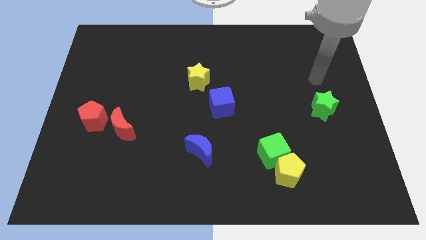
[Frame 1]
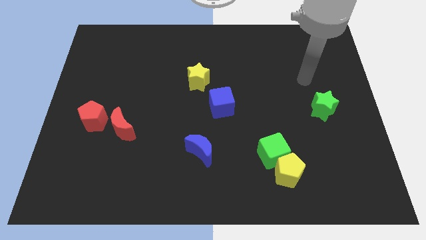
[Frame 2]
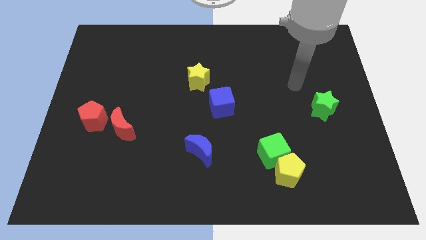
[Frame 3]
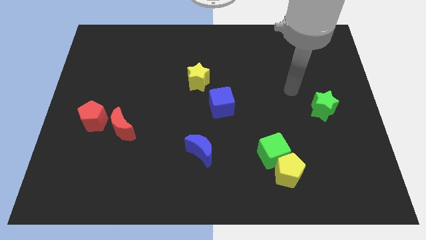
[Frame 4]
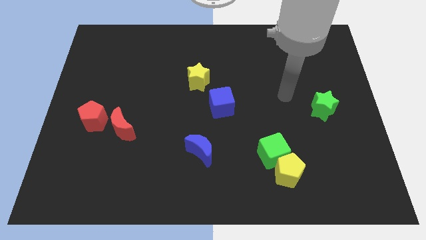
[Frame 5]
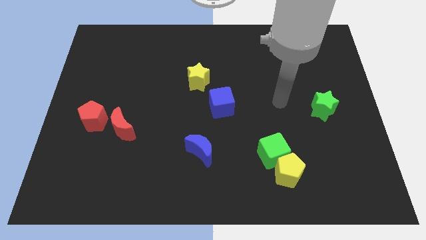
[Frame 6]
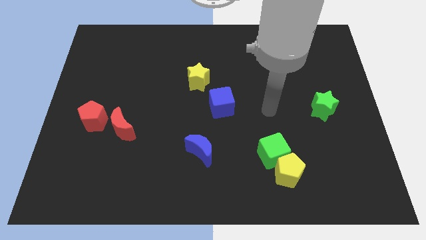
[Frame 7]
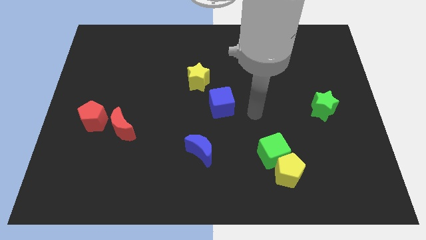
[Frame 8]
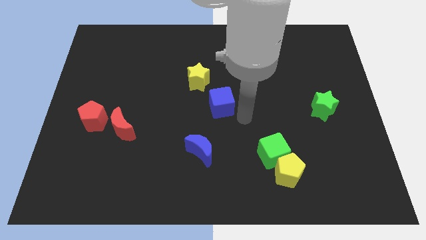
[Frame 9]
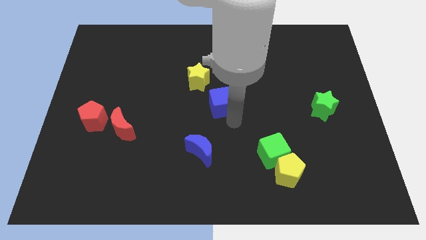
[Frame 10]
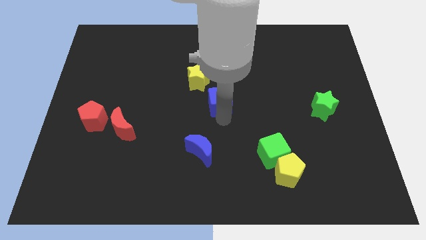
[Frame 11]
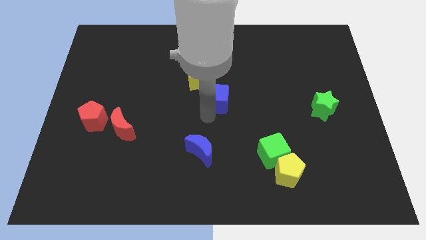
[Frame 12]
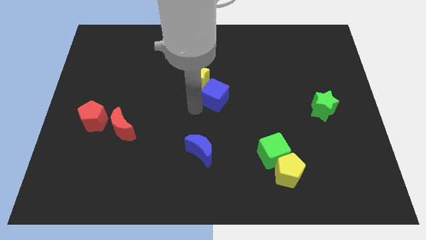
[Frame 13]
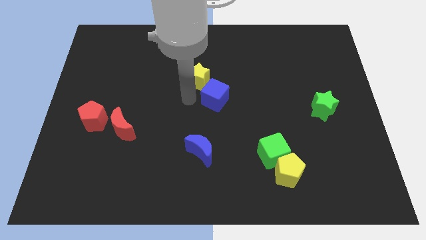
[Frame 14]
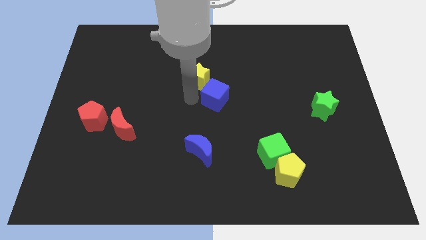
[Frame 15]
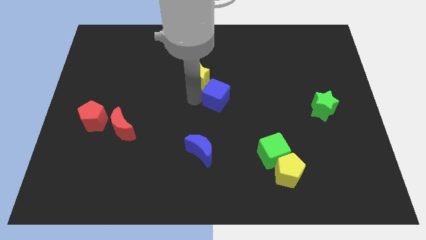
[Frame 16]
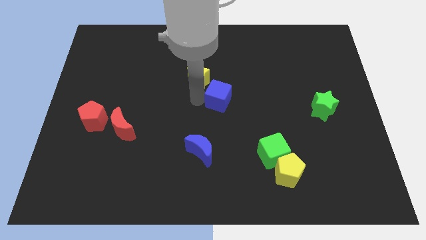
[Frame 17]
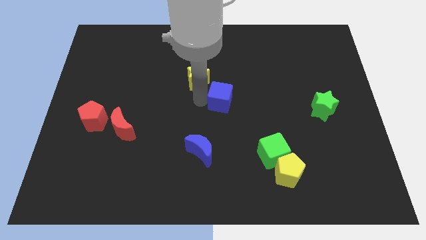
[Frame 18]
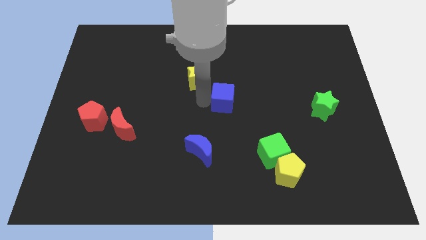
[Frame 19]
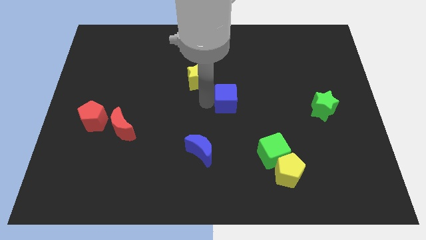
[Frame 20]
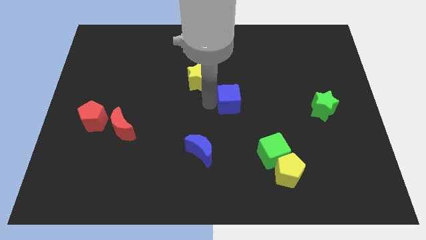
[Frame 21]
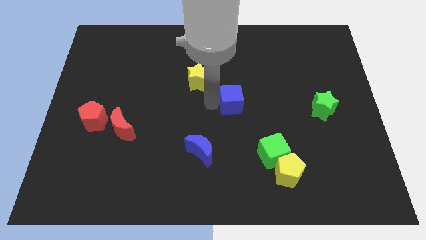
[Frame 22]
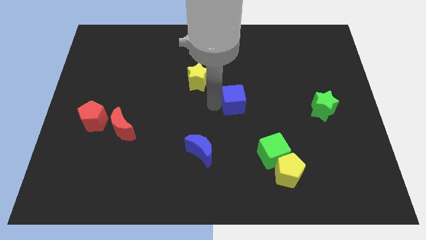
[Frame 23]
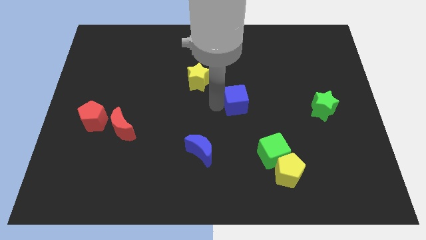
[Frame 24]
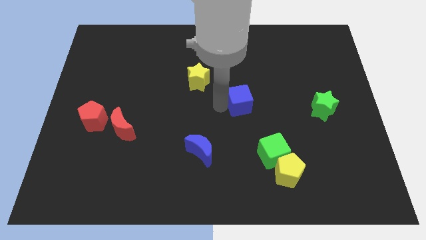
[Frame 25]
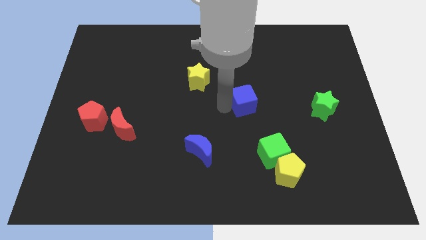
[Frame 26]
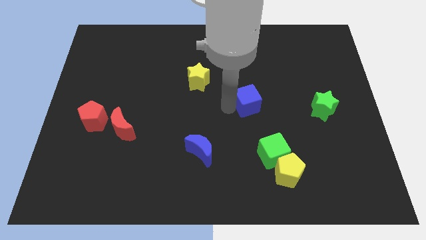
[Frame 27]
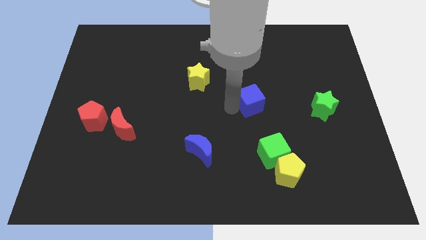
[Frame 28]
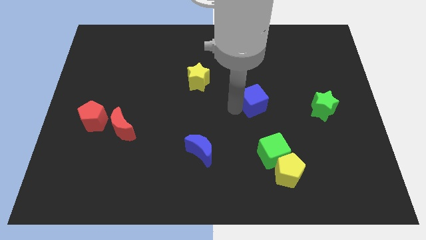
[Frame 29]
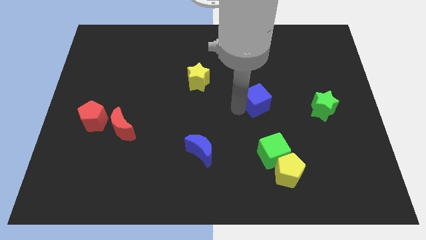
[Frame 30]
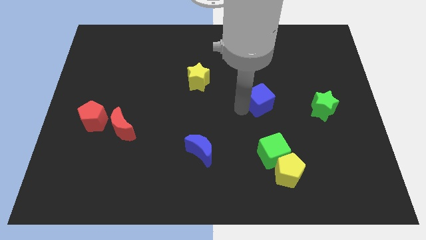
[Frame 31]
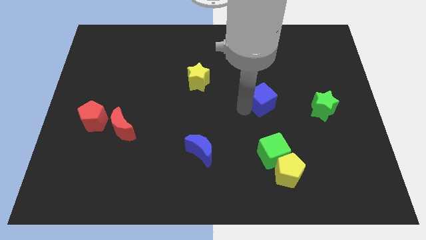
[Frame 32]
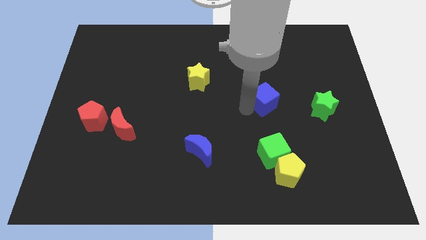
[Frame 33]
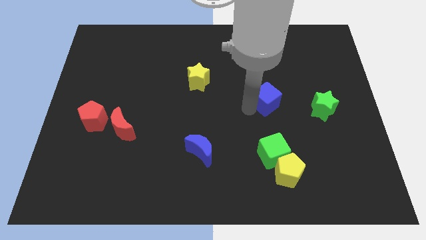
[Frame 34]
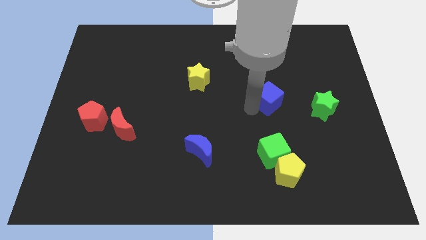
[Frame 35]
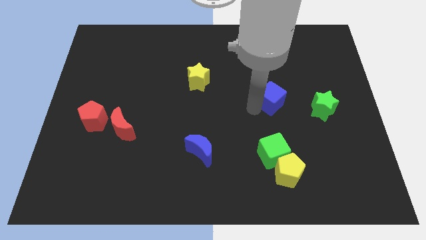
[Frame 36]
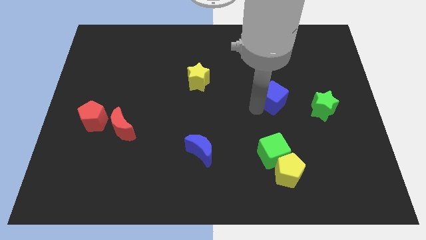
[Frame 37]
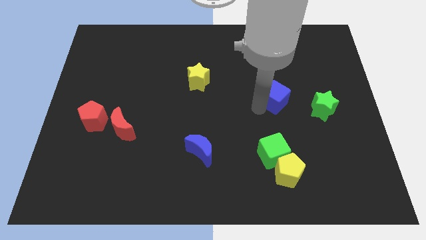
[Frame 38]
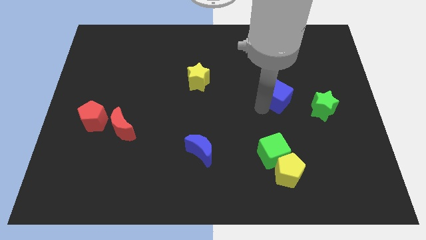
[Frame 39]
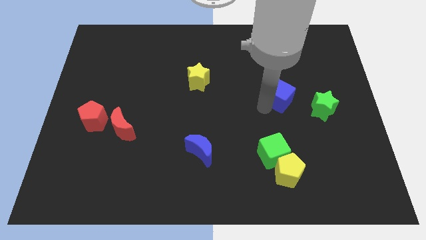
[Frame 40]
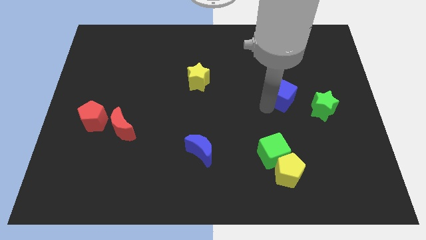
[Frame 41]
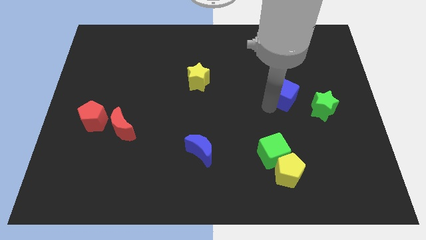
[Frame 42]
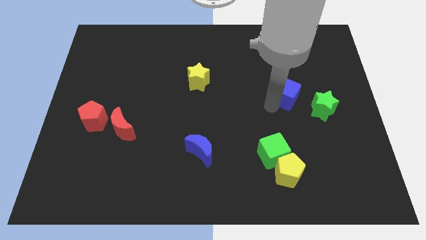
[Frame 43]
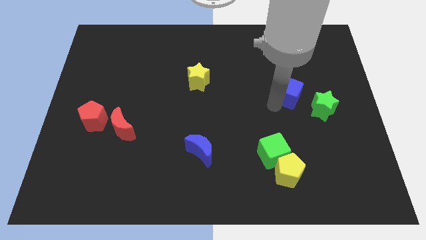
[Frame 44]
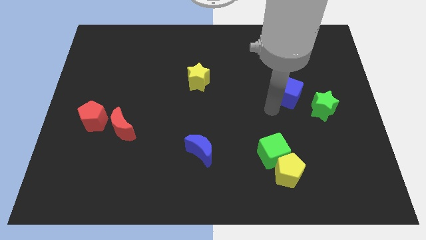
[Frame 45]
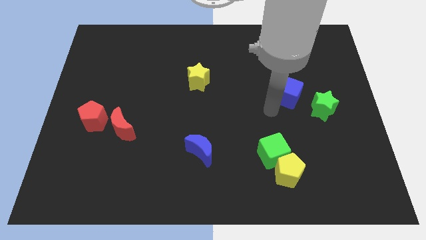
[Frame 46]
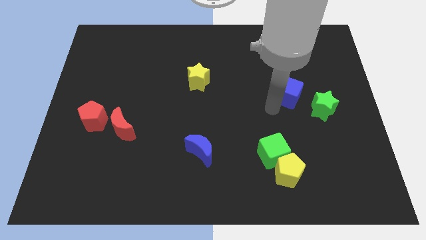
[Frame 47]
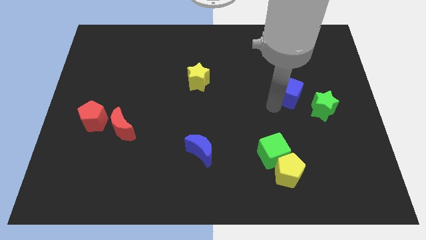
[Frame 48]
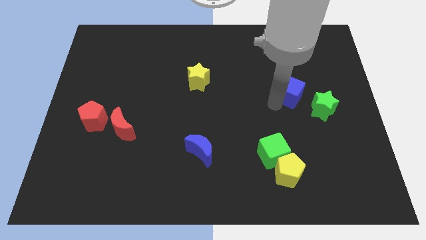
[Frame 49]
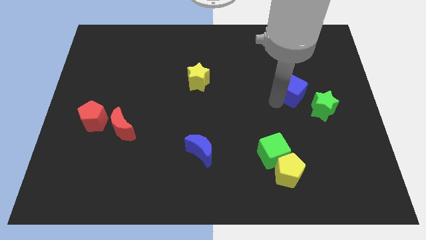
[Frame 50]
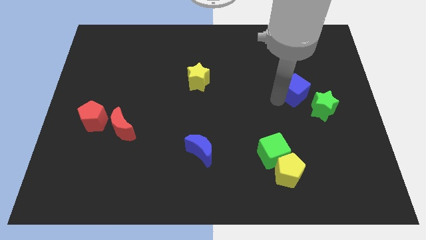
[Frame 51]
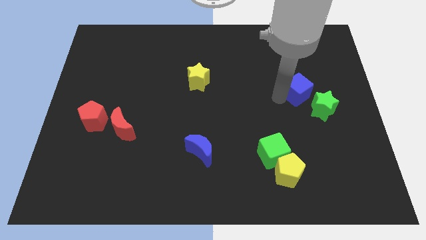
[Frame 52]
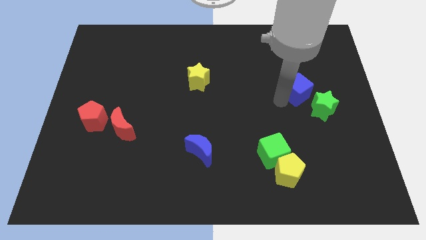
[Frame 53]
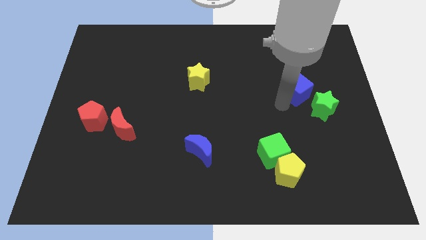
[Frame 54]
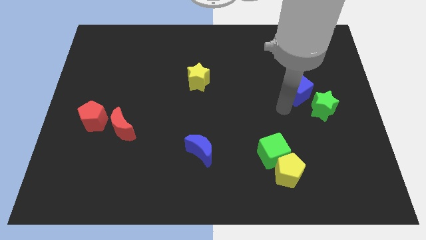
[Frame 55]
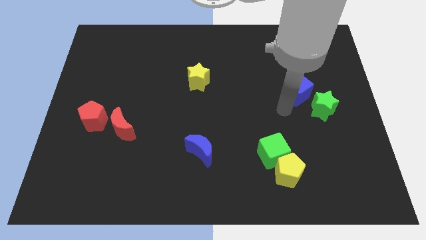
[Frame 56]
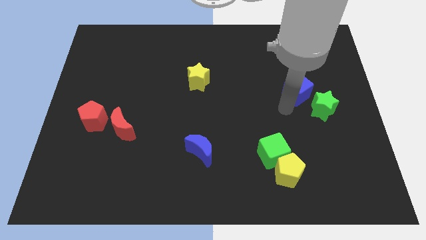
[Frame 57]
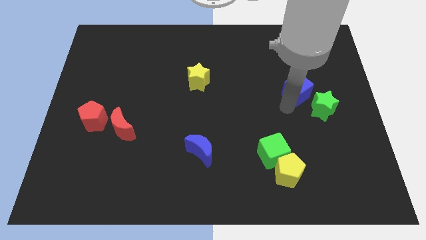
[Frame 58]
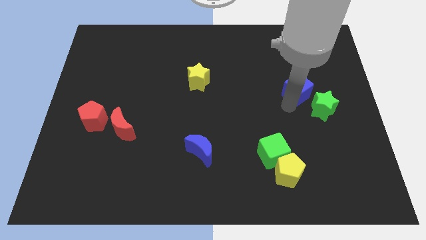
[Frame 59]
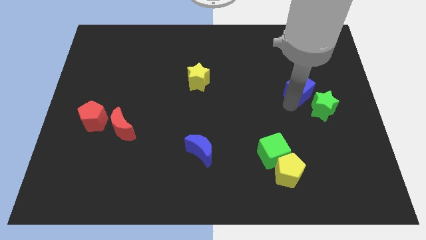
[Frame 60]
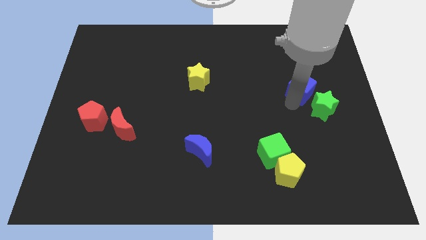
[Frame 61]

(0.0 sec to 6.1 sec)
slide the blue cube to the top side of the green star
